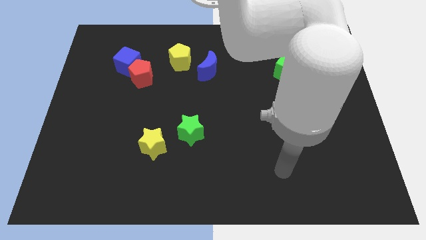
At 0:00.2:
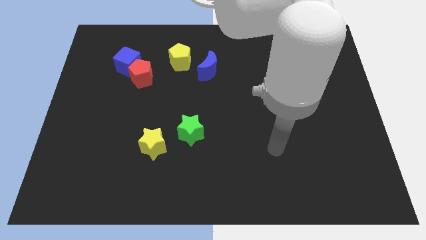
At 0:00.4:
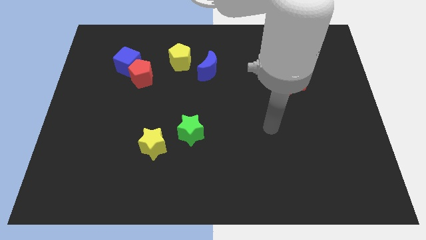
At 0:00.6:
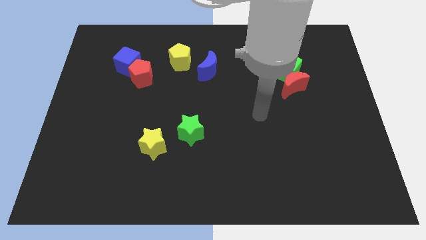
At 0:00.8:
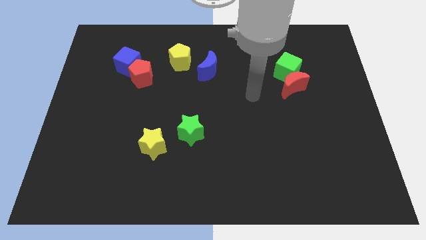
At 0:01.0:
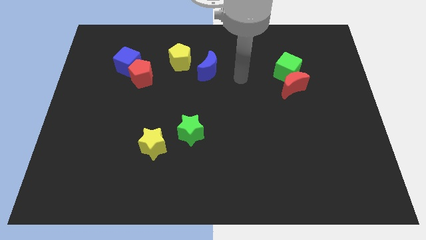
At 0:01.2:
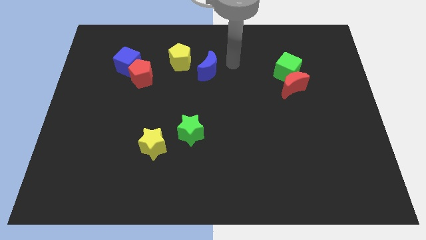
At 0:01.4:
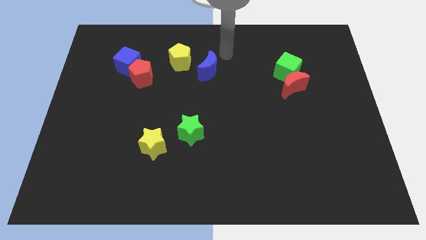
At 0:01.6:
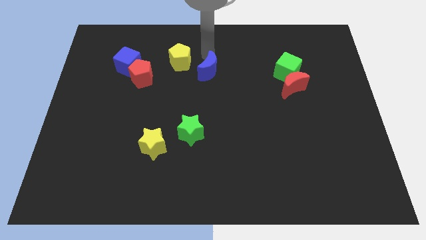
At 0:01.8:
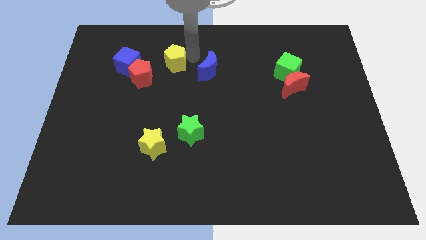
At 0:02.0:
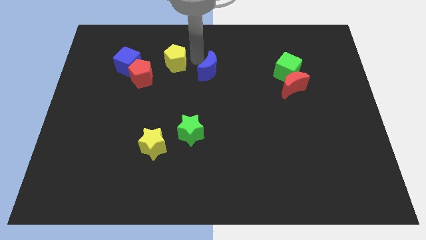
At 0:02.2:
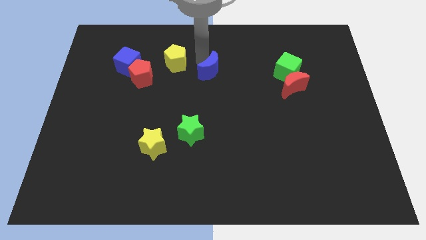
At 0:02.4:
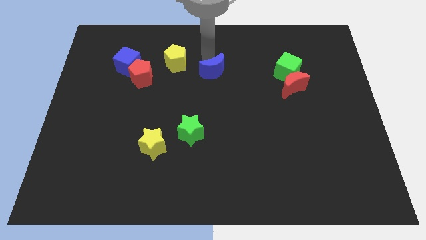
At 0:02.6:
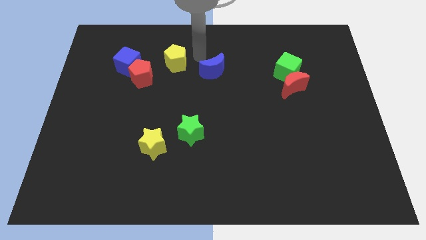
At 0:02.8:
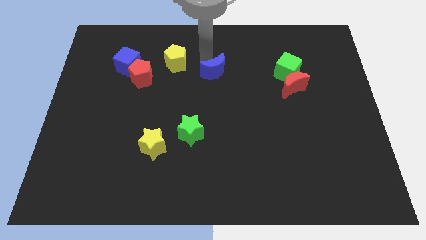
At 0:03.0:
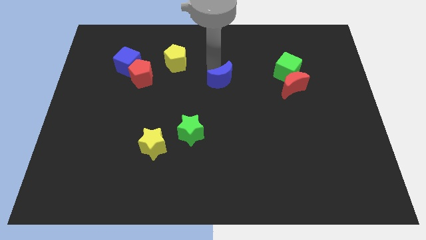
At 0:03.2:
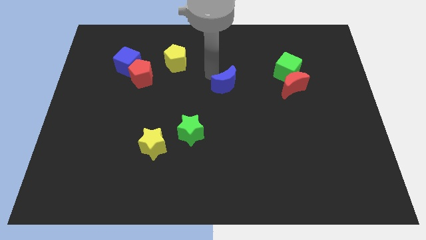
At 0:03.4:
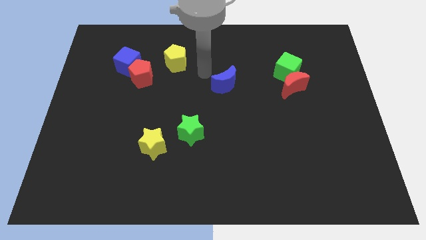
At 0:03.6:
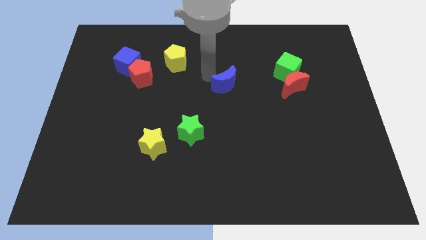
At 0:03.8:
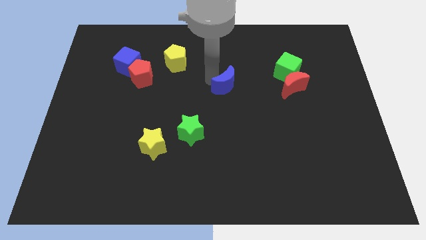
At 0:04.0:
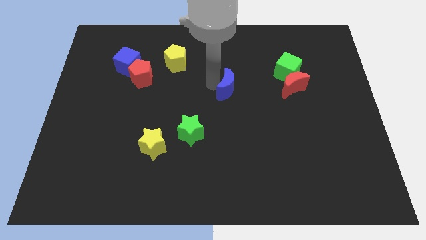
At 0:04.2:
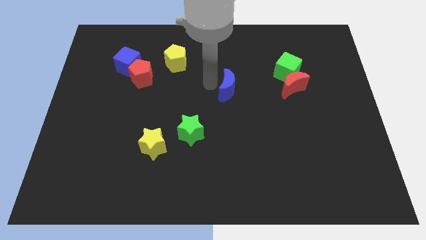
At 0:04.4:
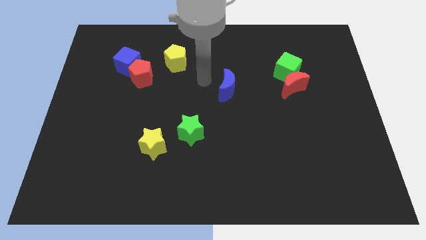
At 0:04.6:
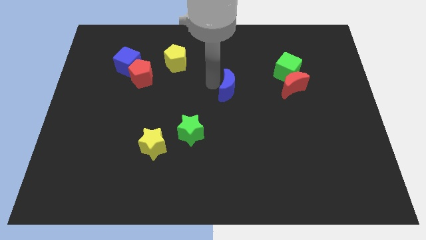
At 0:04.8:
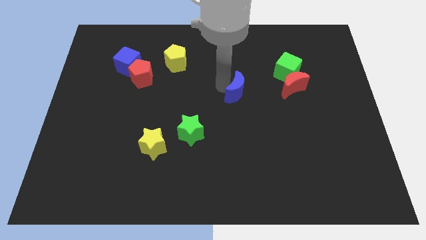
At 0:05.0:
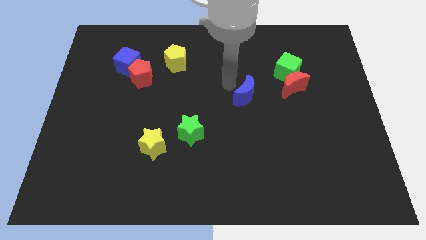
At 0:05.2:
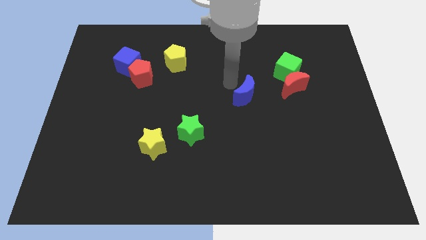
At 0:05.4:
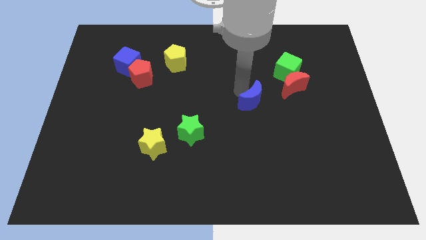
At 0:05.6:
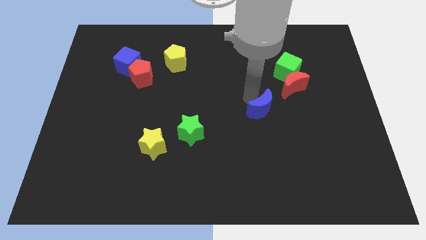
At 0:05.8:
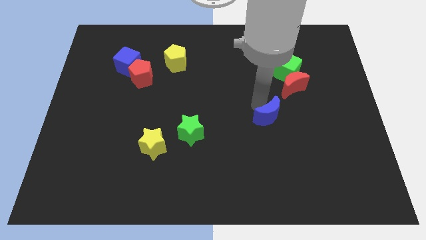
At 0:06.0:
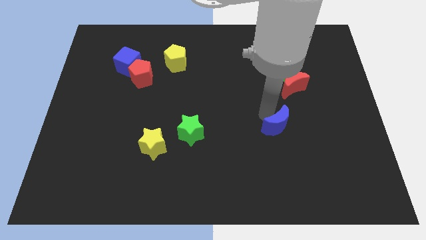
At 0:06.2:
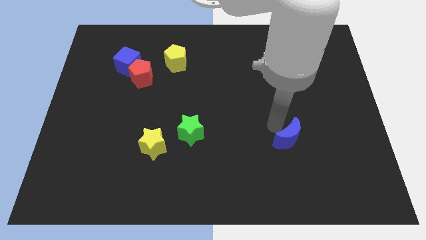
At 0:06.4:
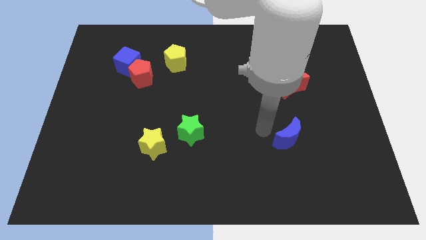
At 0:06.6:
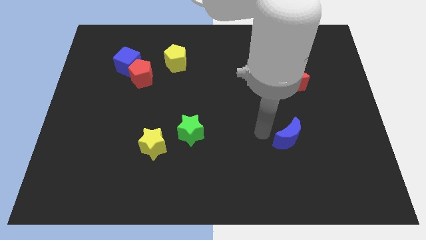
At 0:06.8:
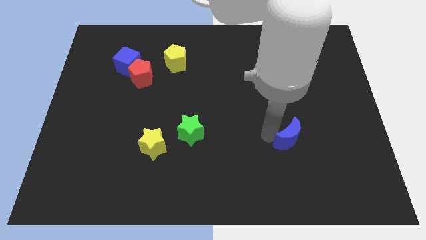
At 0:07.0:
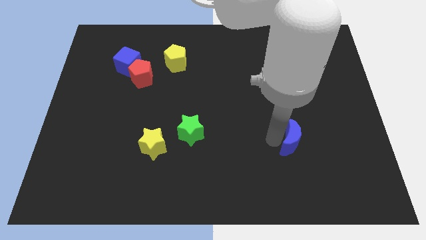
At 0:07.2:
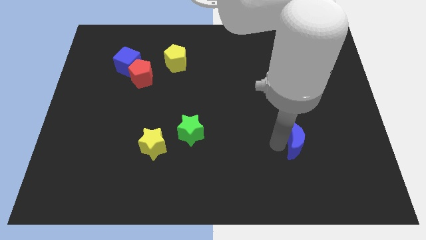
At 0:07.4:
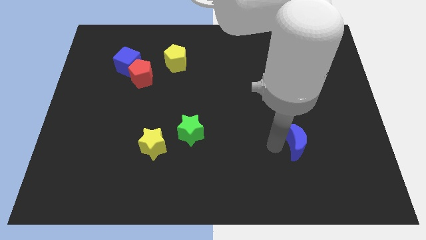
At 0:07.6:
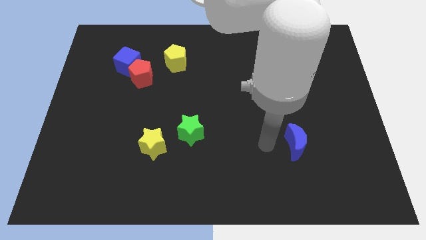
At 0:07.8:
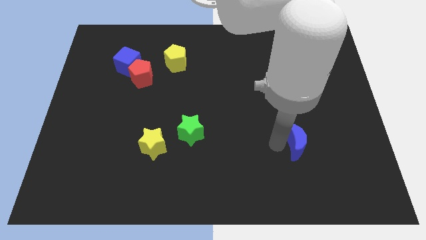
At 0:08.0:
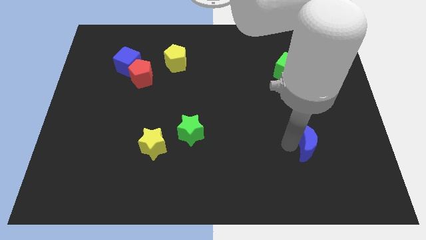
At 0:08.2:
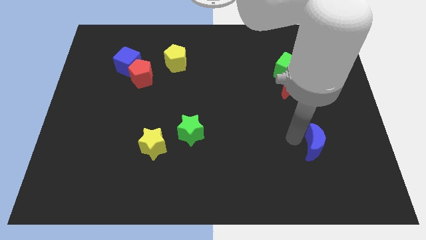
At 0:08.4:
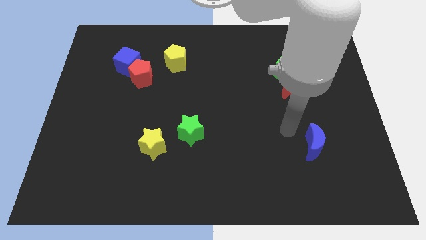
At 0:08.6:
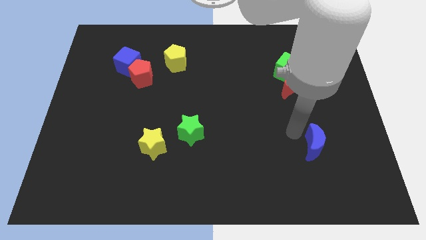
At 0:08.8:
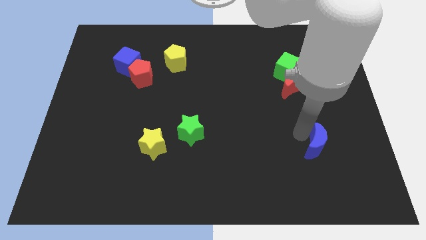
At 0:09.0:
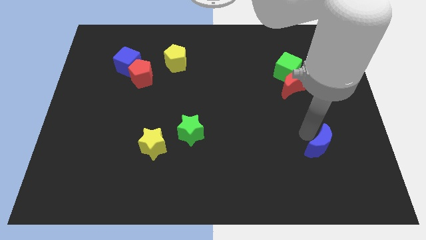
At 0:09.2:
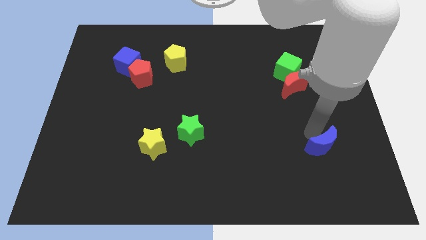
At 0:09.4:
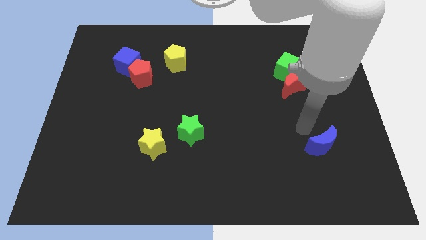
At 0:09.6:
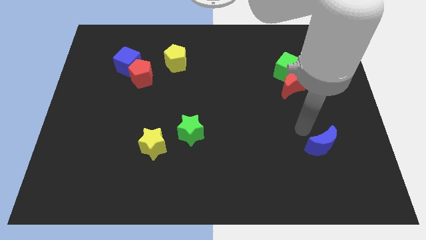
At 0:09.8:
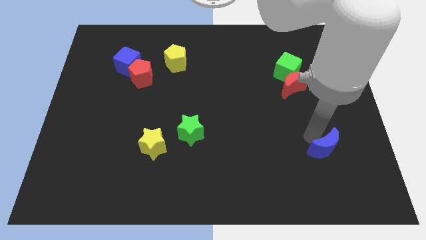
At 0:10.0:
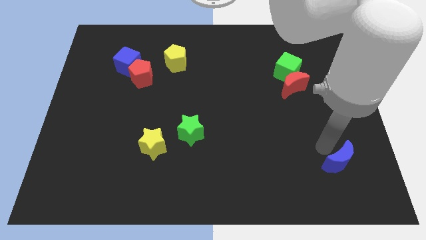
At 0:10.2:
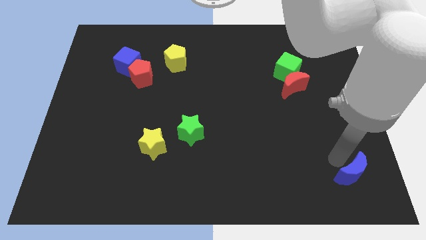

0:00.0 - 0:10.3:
move the blue moon to the bottom right

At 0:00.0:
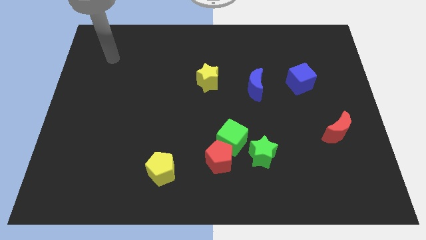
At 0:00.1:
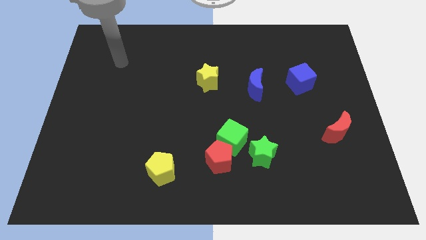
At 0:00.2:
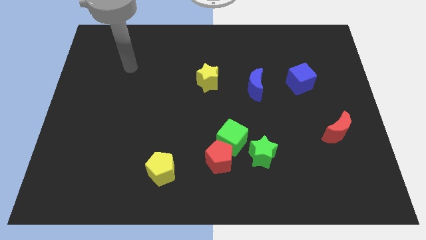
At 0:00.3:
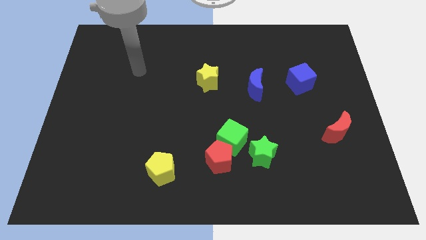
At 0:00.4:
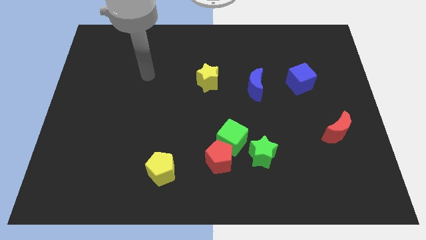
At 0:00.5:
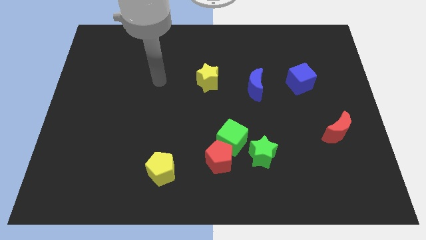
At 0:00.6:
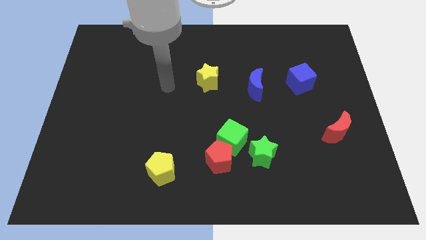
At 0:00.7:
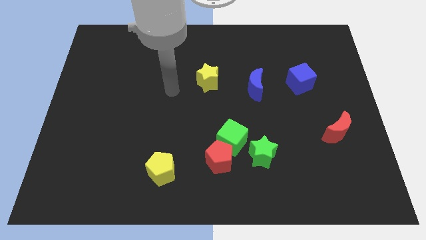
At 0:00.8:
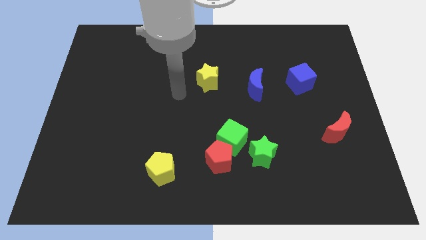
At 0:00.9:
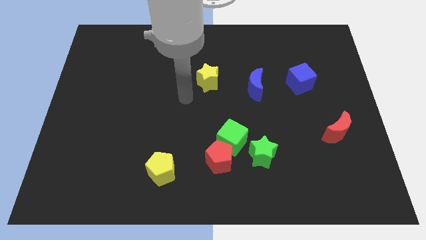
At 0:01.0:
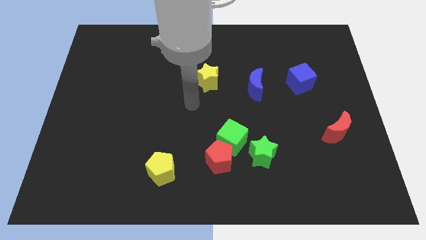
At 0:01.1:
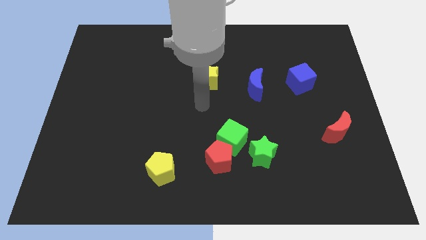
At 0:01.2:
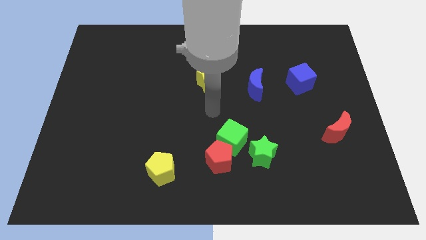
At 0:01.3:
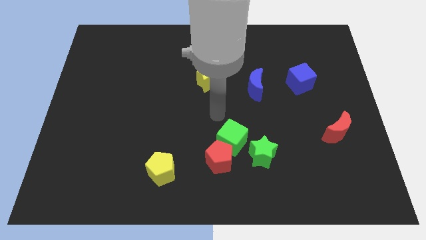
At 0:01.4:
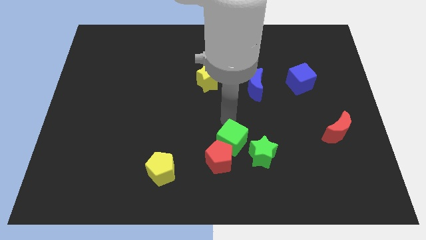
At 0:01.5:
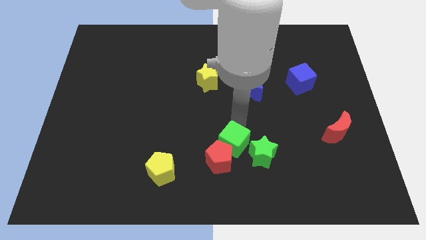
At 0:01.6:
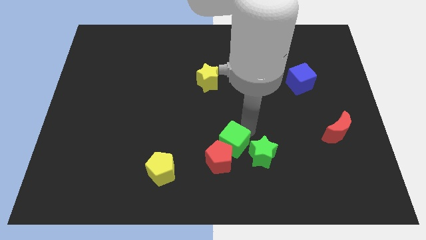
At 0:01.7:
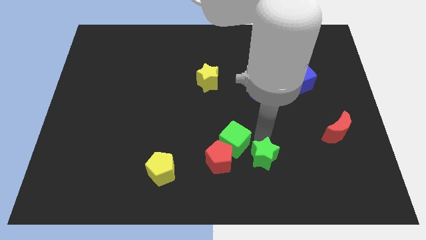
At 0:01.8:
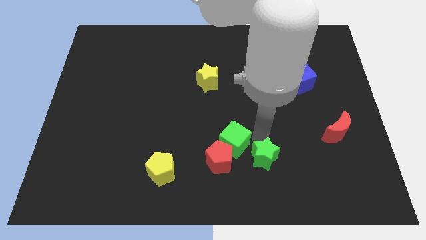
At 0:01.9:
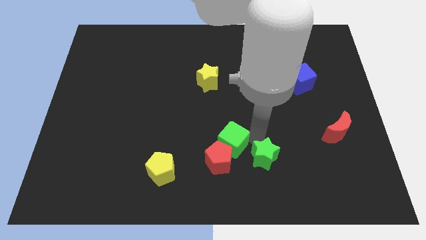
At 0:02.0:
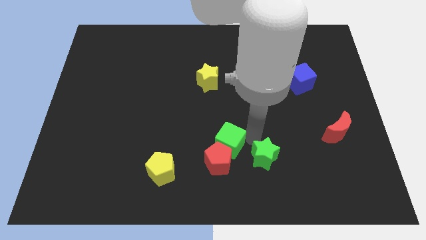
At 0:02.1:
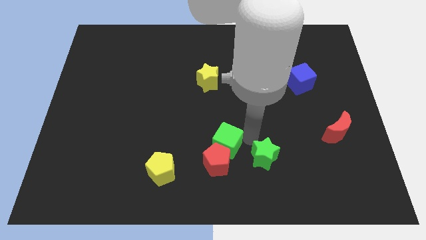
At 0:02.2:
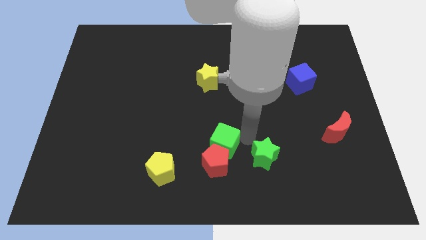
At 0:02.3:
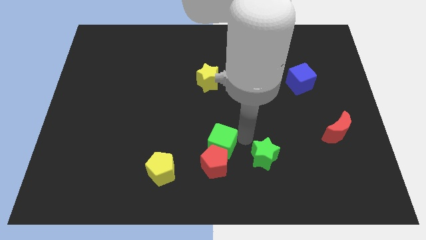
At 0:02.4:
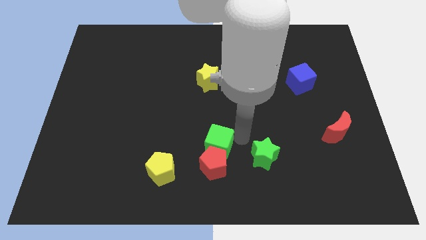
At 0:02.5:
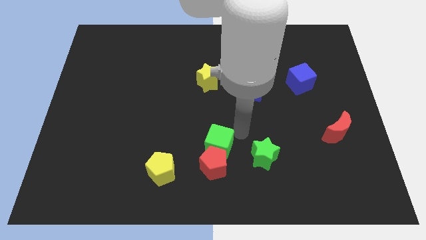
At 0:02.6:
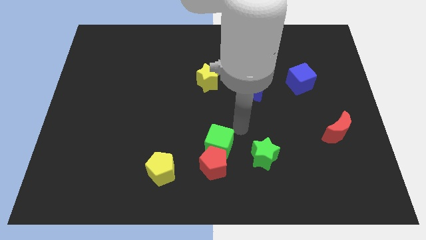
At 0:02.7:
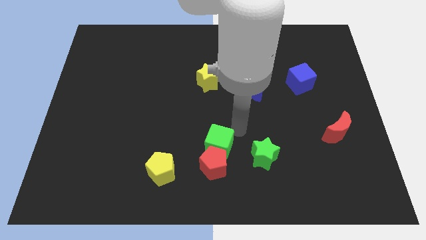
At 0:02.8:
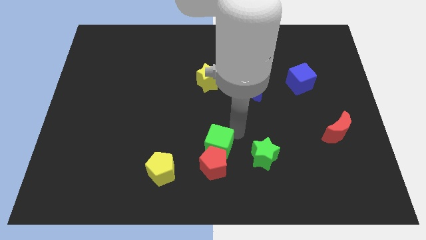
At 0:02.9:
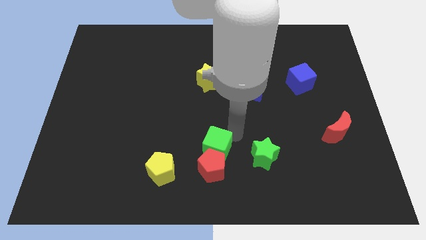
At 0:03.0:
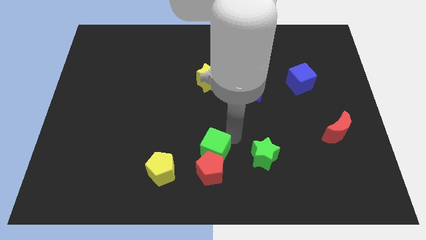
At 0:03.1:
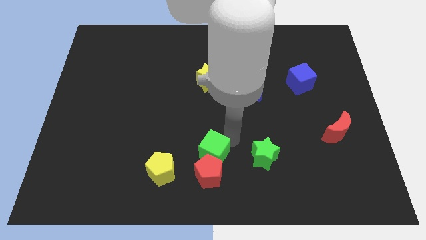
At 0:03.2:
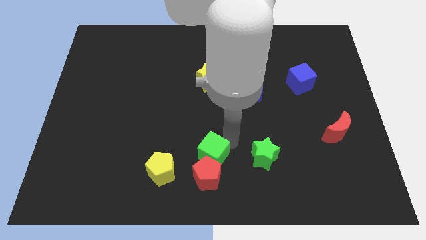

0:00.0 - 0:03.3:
push the green cube to the bottom
